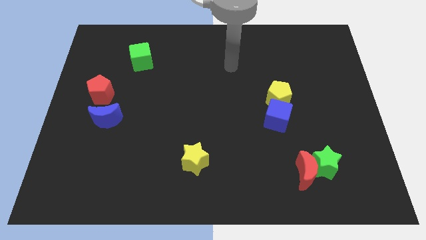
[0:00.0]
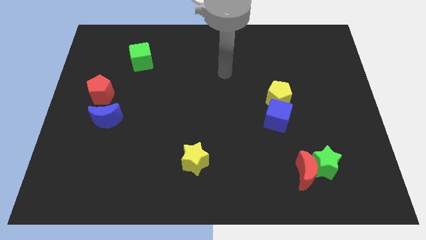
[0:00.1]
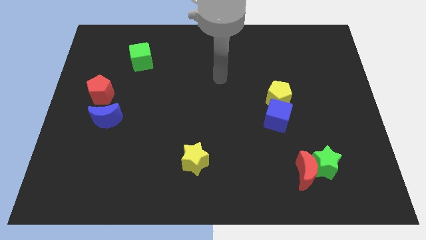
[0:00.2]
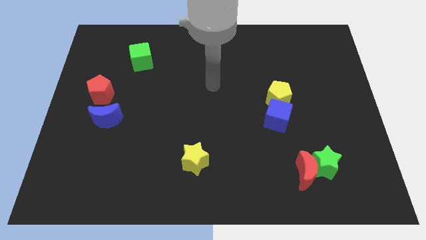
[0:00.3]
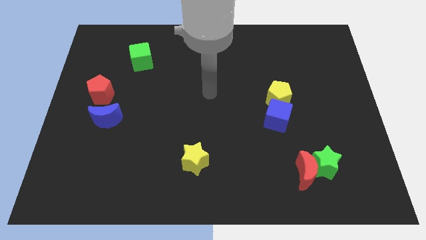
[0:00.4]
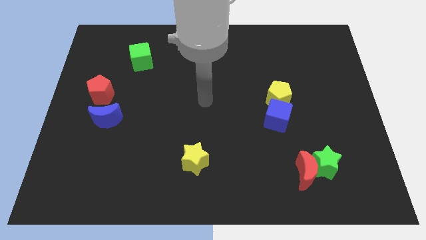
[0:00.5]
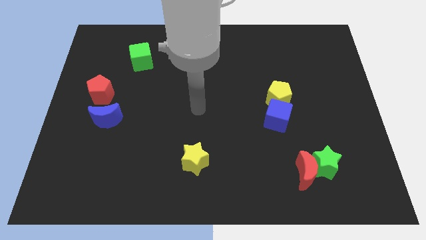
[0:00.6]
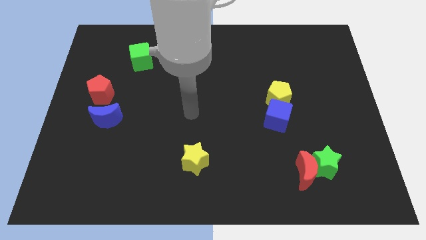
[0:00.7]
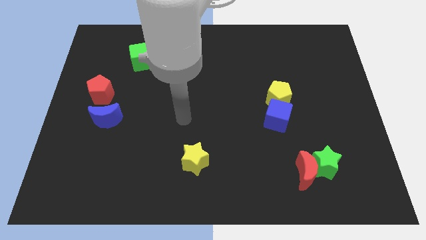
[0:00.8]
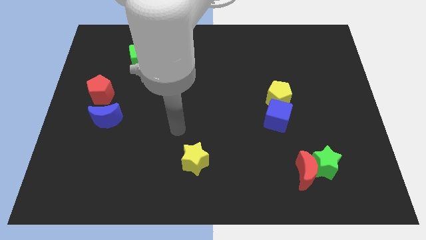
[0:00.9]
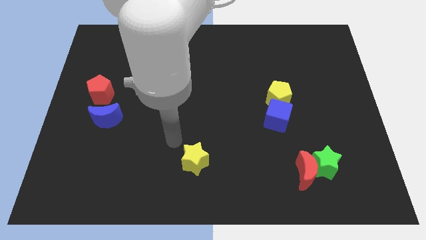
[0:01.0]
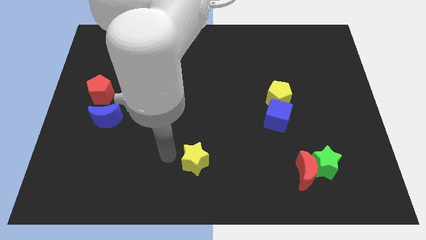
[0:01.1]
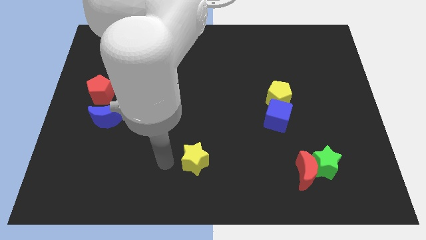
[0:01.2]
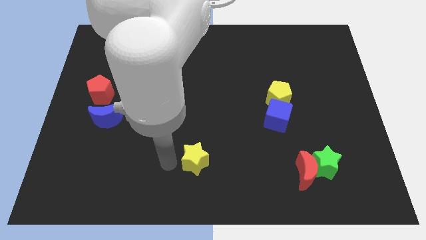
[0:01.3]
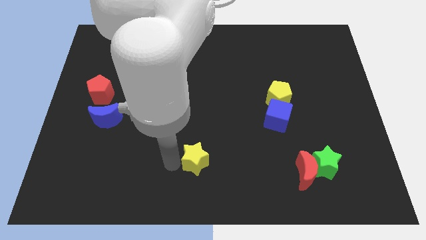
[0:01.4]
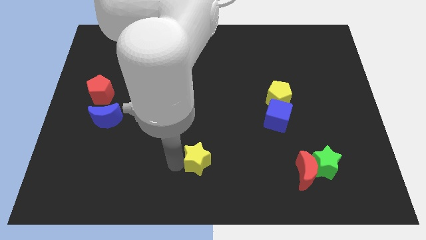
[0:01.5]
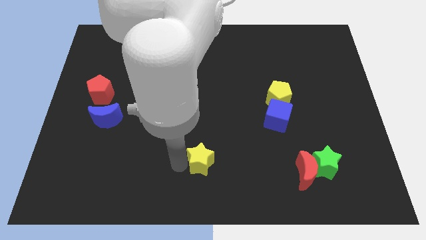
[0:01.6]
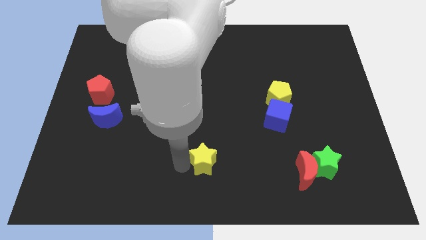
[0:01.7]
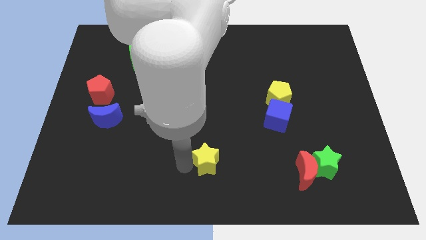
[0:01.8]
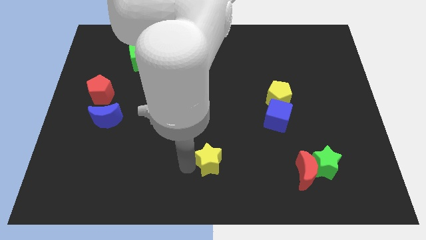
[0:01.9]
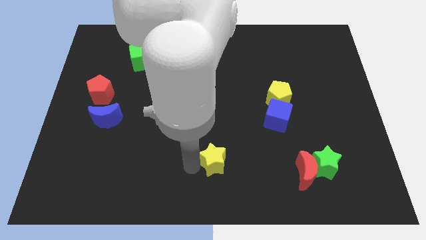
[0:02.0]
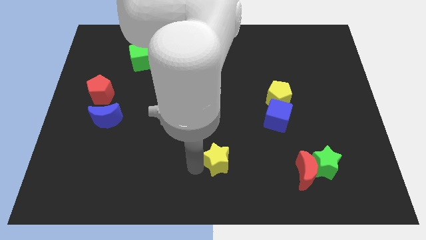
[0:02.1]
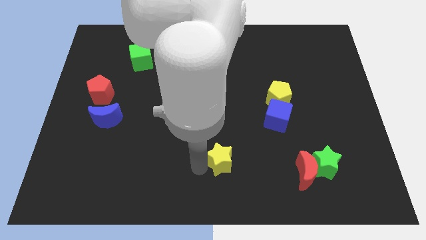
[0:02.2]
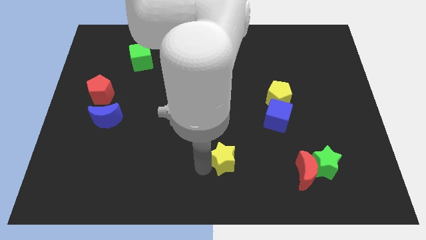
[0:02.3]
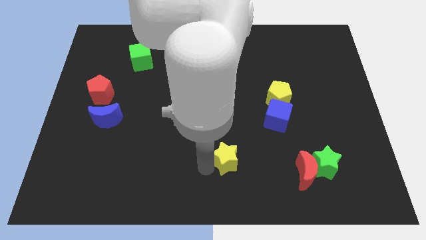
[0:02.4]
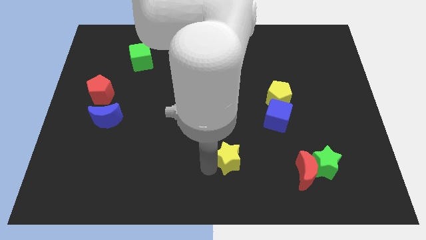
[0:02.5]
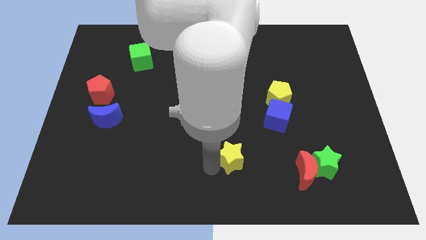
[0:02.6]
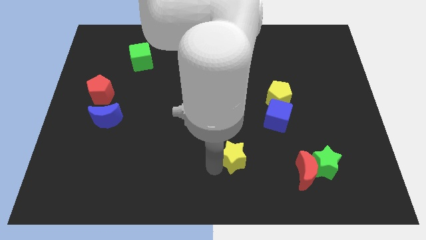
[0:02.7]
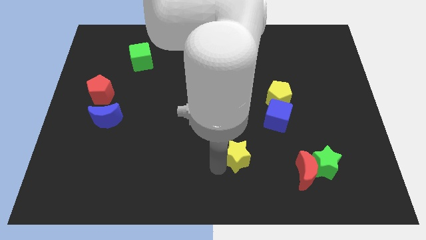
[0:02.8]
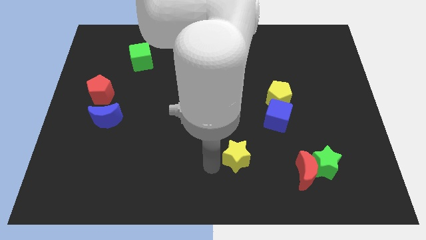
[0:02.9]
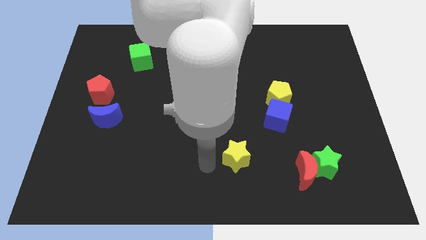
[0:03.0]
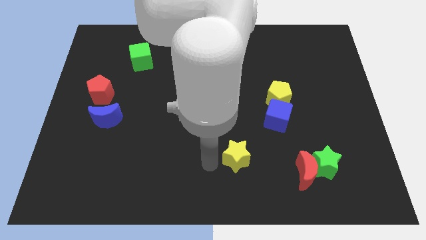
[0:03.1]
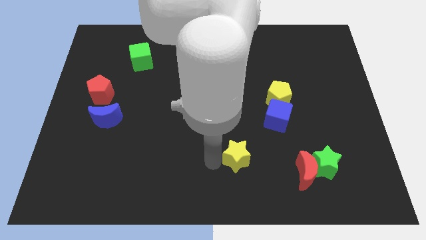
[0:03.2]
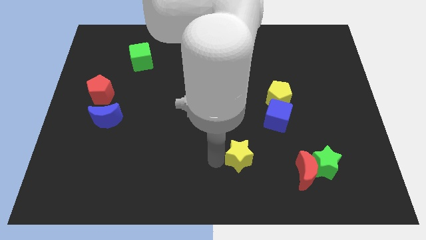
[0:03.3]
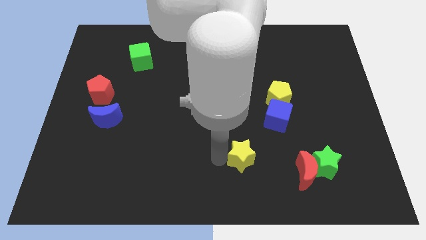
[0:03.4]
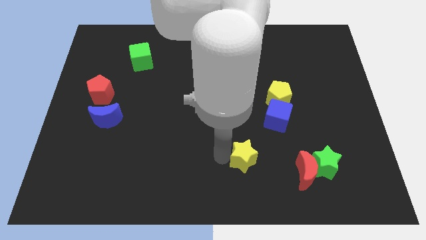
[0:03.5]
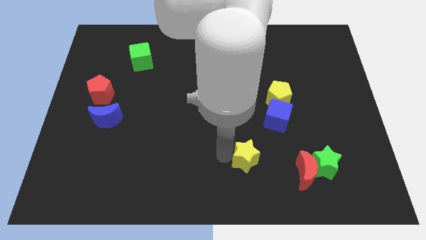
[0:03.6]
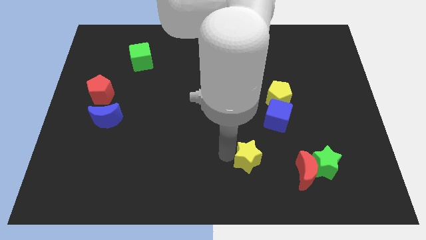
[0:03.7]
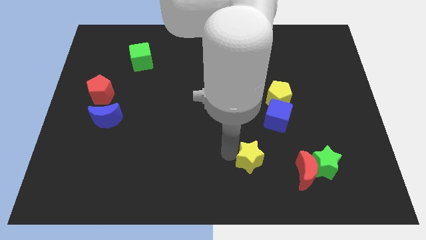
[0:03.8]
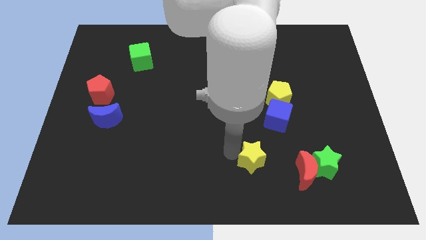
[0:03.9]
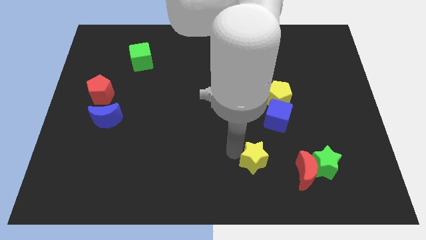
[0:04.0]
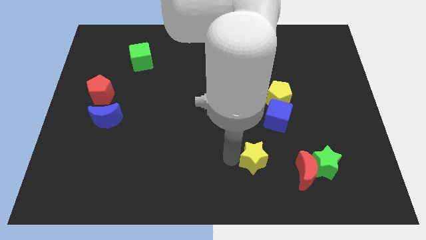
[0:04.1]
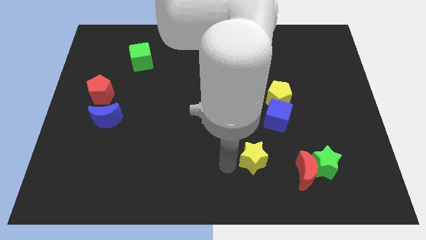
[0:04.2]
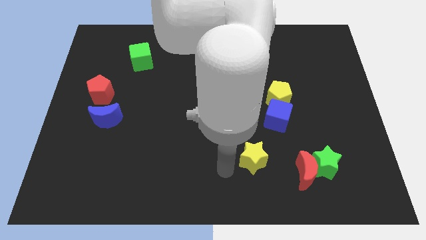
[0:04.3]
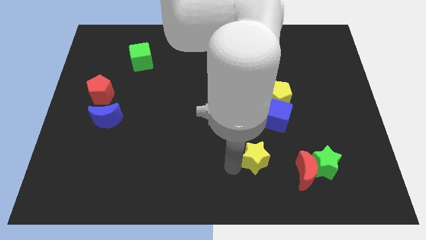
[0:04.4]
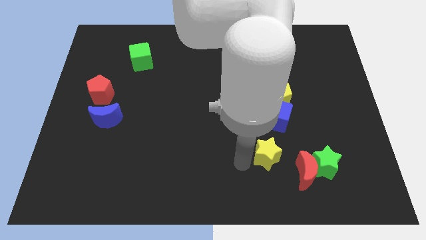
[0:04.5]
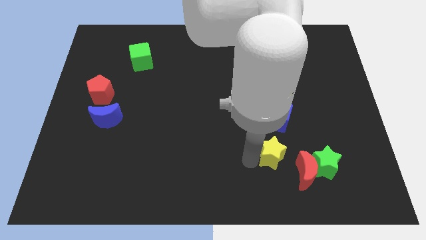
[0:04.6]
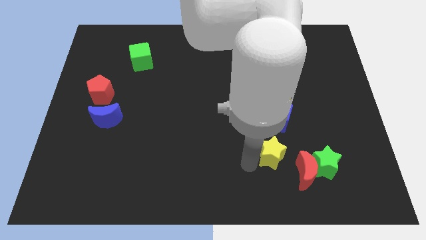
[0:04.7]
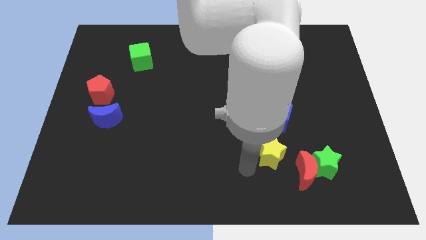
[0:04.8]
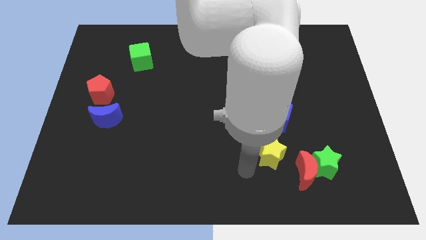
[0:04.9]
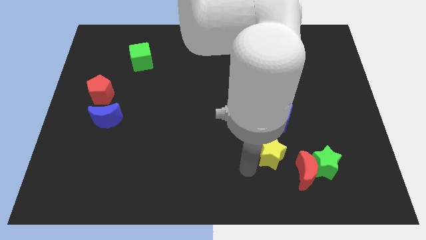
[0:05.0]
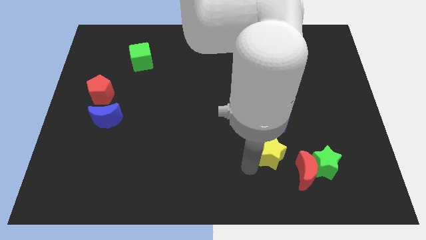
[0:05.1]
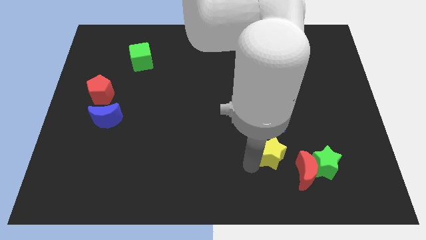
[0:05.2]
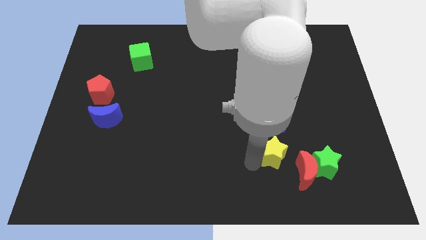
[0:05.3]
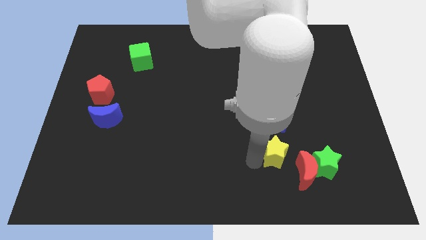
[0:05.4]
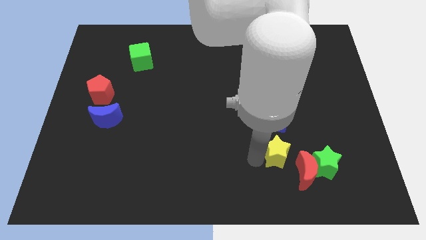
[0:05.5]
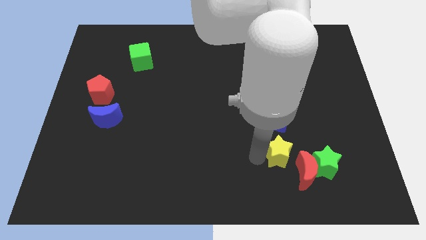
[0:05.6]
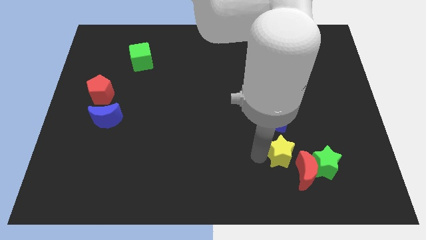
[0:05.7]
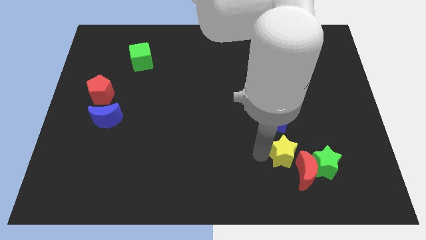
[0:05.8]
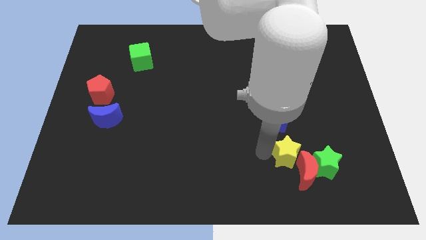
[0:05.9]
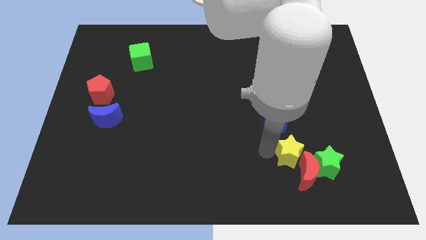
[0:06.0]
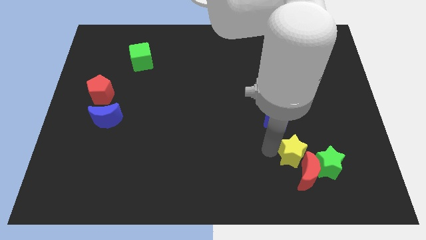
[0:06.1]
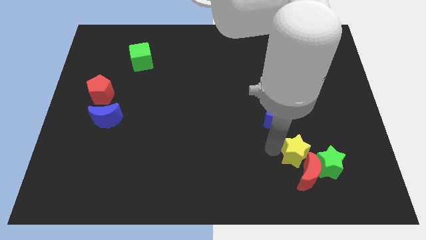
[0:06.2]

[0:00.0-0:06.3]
push the yellow star to the bottom right side of the blue cube

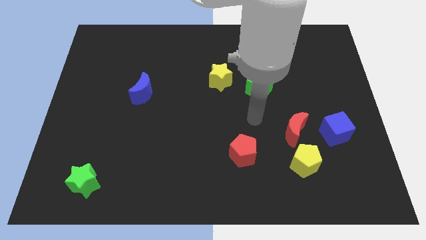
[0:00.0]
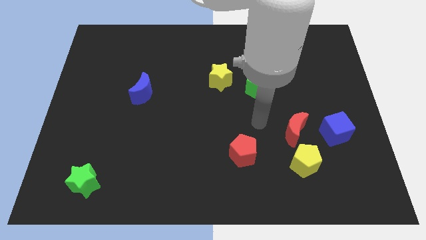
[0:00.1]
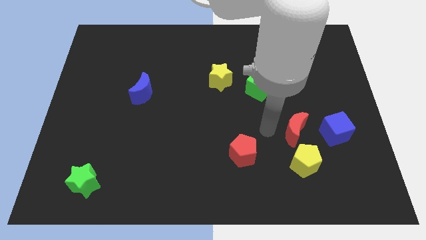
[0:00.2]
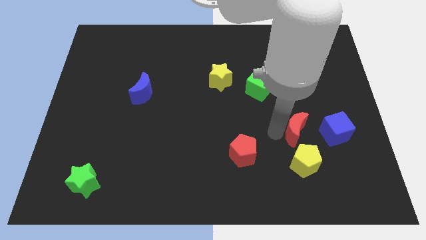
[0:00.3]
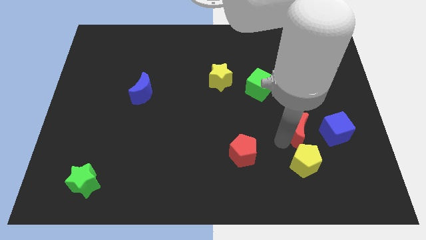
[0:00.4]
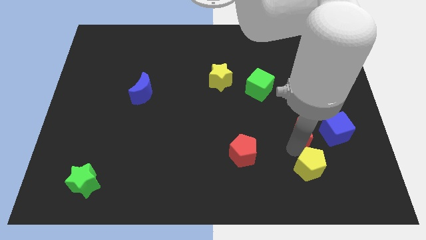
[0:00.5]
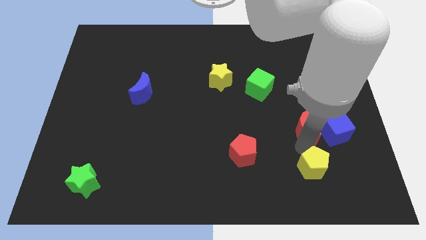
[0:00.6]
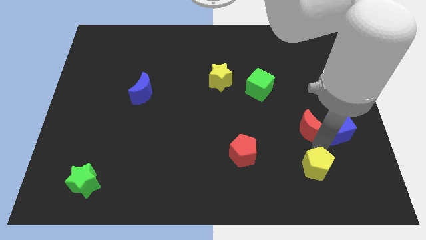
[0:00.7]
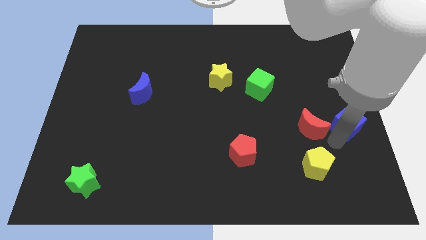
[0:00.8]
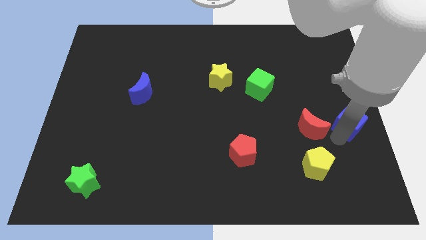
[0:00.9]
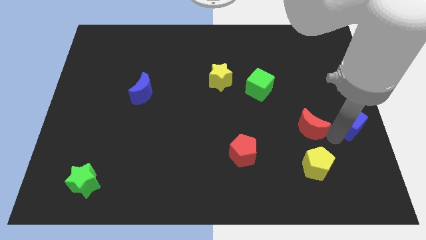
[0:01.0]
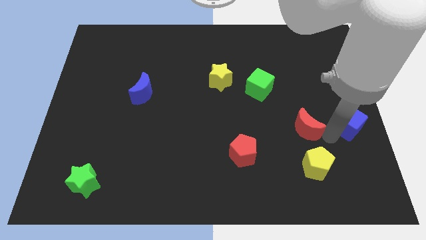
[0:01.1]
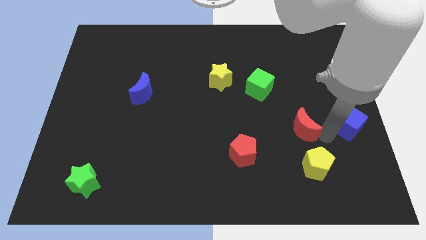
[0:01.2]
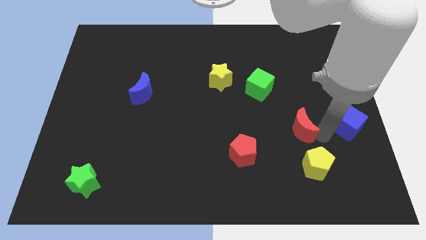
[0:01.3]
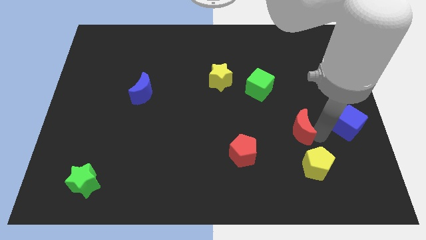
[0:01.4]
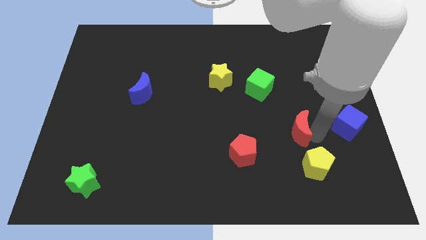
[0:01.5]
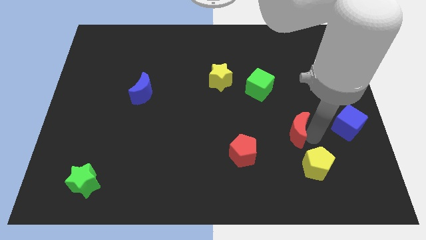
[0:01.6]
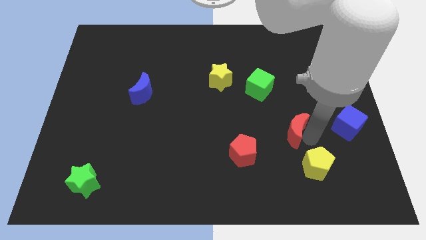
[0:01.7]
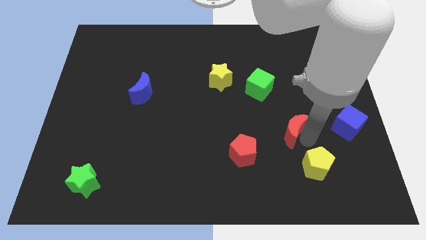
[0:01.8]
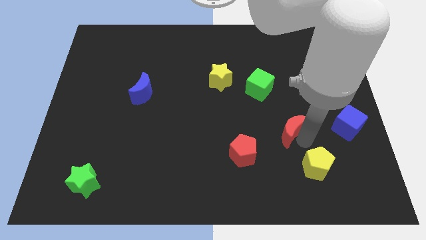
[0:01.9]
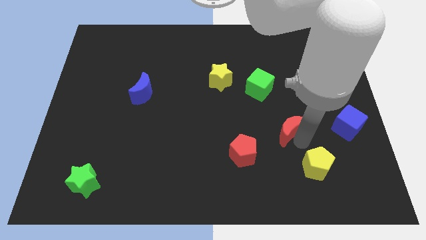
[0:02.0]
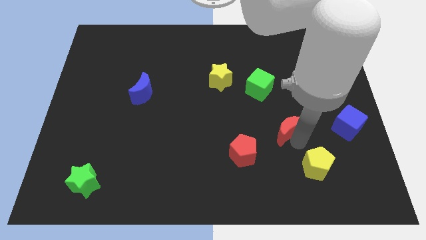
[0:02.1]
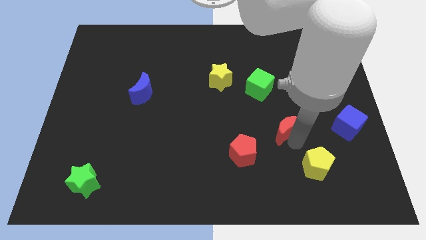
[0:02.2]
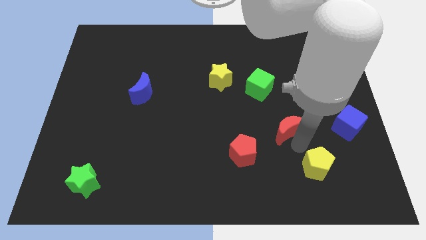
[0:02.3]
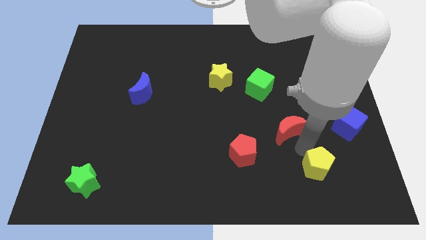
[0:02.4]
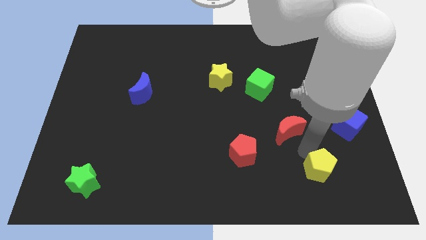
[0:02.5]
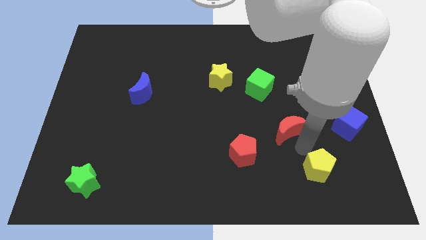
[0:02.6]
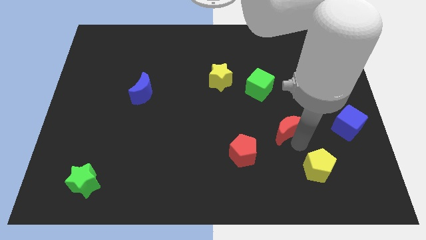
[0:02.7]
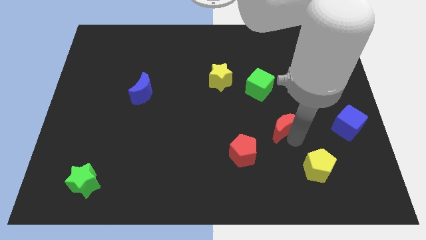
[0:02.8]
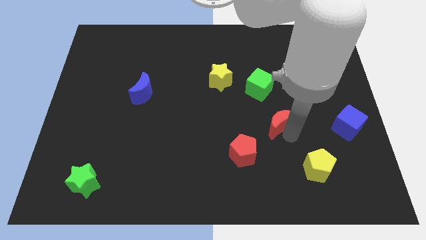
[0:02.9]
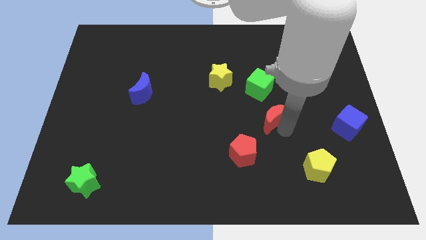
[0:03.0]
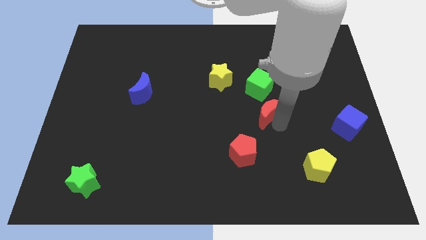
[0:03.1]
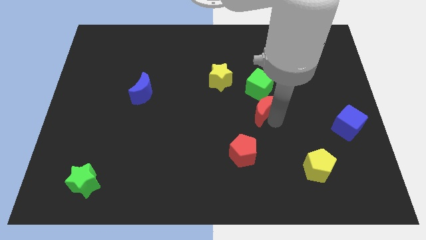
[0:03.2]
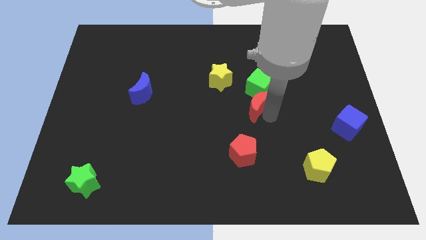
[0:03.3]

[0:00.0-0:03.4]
put the red moon to the bottom right side of the yellow star
